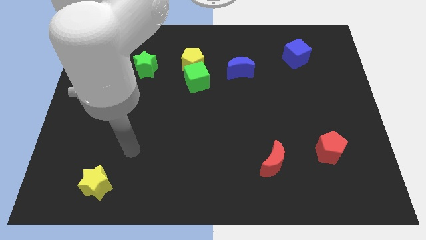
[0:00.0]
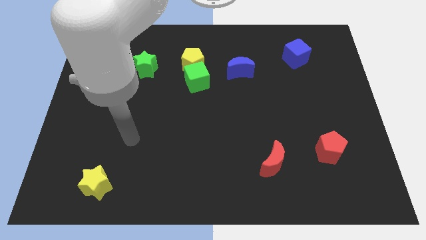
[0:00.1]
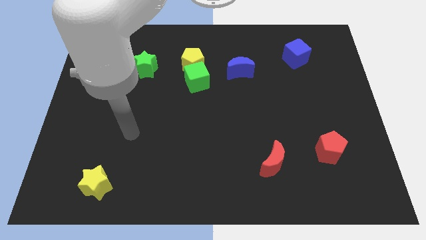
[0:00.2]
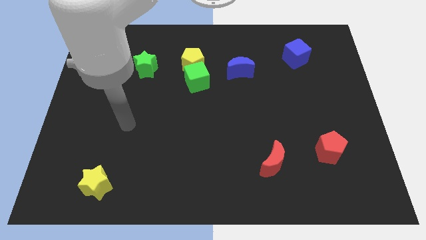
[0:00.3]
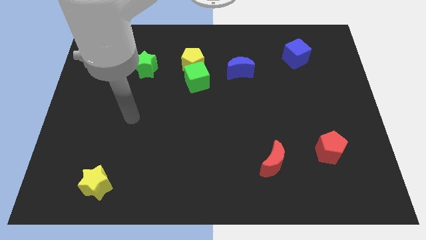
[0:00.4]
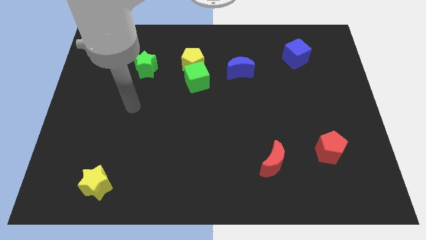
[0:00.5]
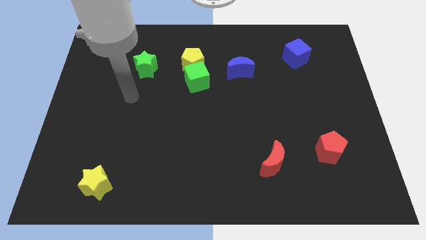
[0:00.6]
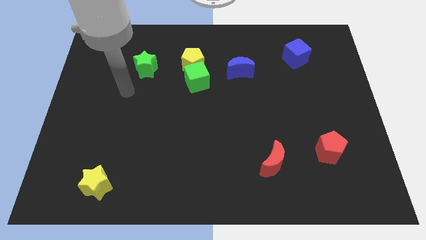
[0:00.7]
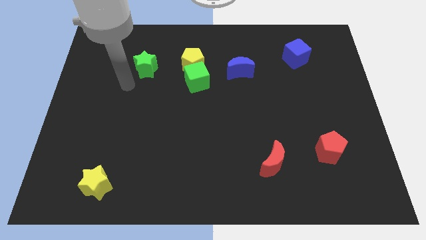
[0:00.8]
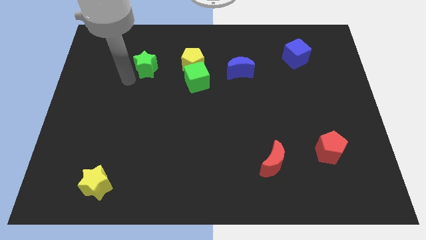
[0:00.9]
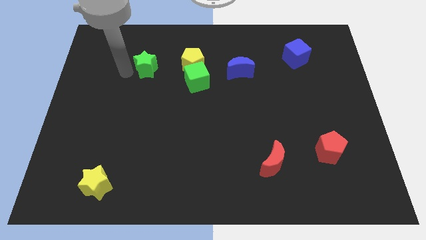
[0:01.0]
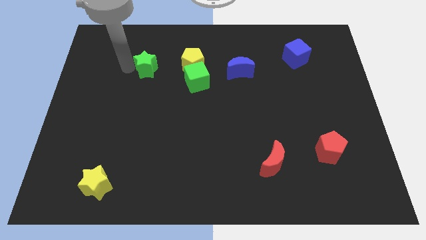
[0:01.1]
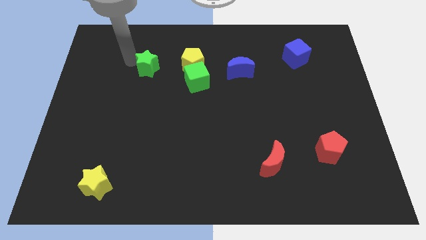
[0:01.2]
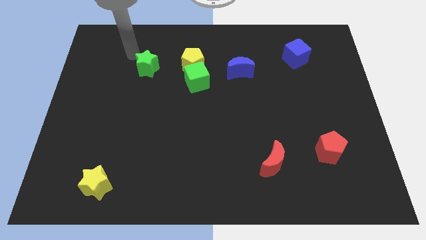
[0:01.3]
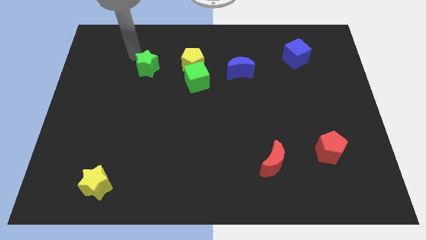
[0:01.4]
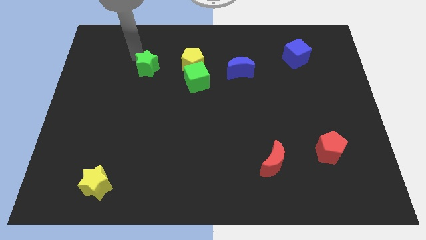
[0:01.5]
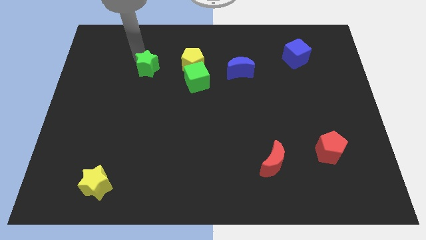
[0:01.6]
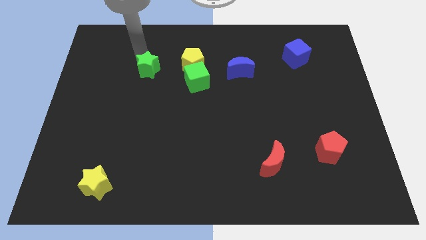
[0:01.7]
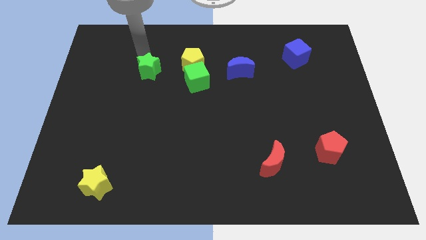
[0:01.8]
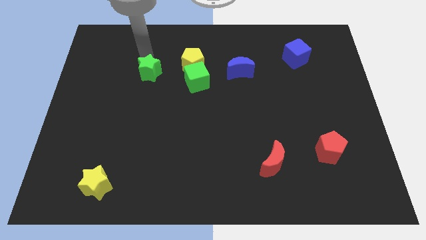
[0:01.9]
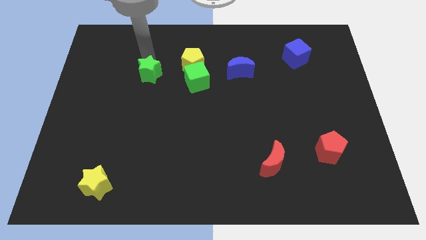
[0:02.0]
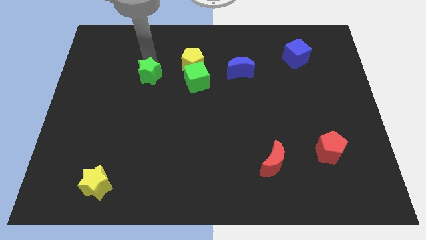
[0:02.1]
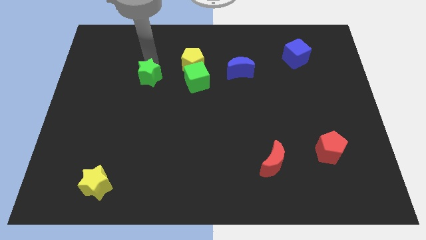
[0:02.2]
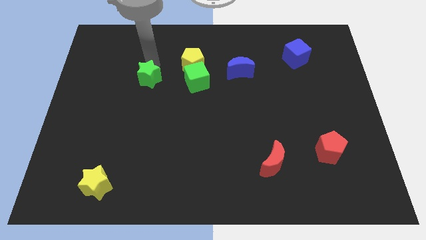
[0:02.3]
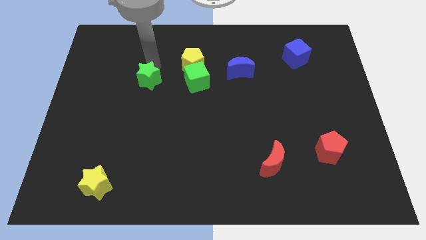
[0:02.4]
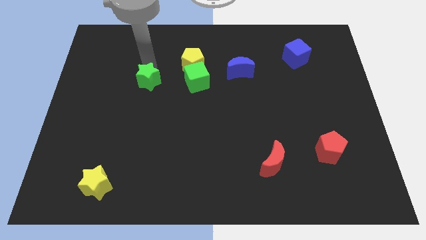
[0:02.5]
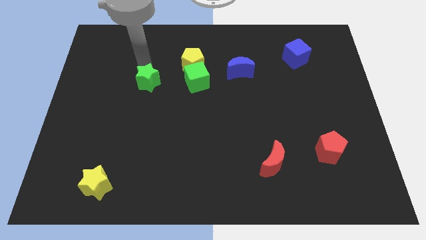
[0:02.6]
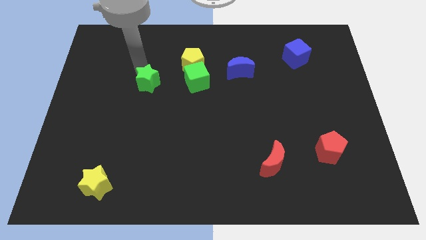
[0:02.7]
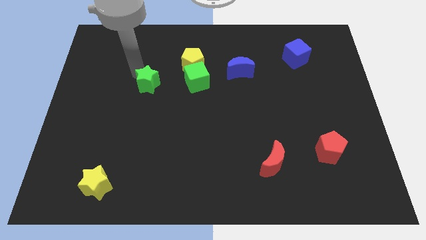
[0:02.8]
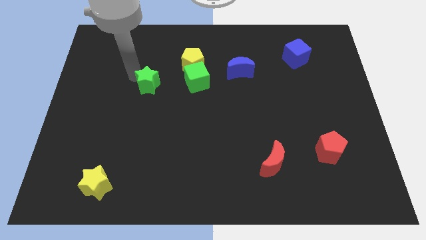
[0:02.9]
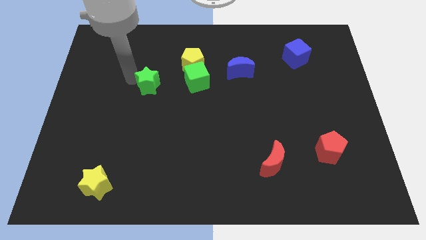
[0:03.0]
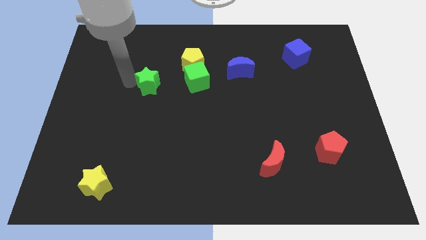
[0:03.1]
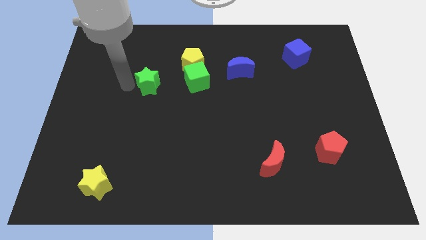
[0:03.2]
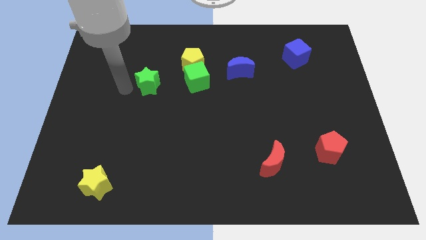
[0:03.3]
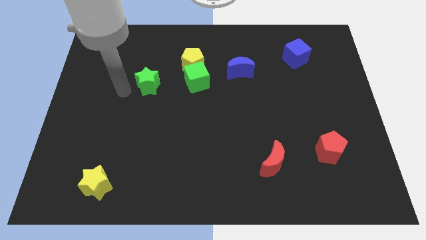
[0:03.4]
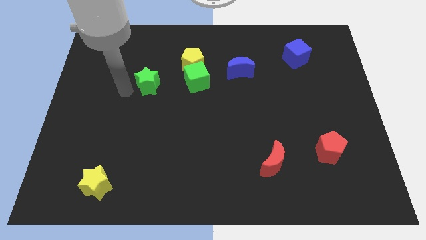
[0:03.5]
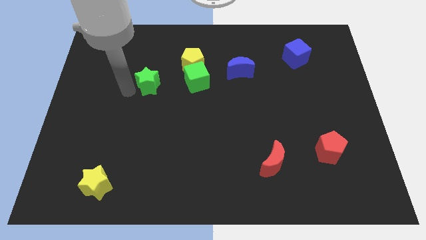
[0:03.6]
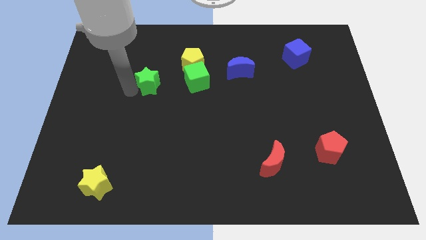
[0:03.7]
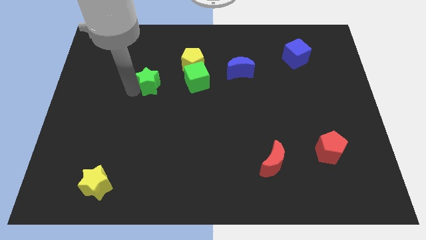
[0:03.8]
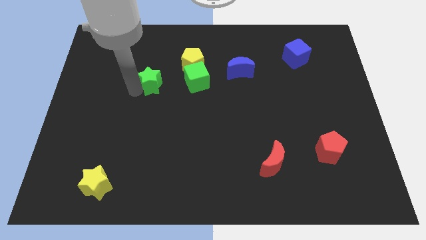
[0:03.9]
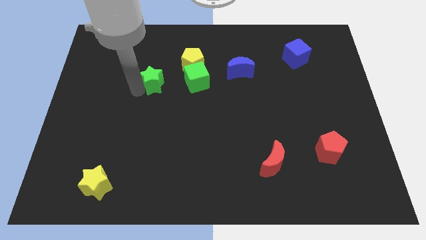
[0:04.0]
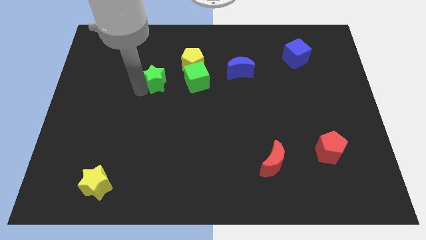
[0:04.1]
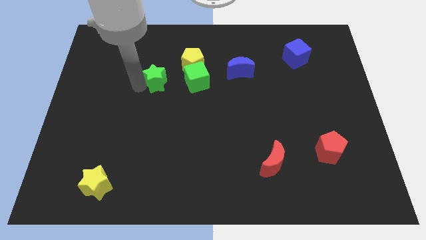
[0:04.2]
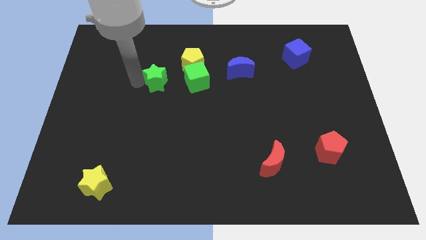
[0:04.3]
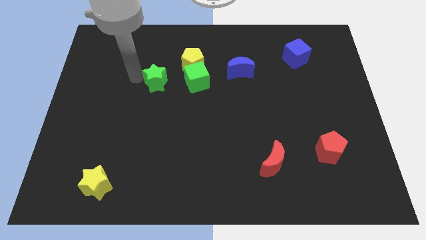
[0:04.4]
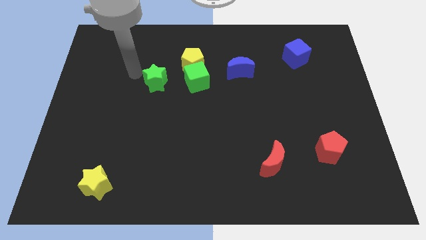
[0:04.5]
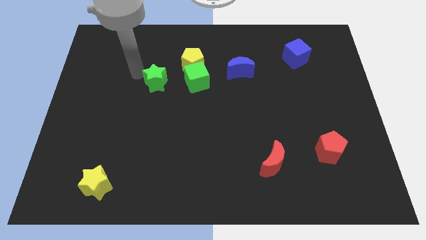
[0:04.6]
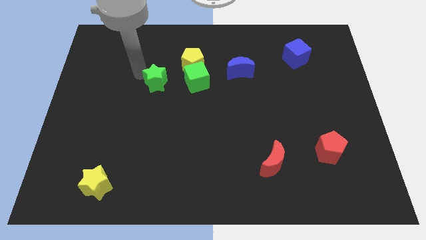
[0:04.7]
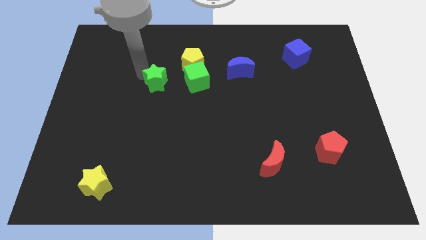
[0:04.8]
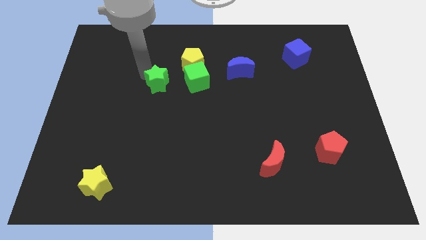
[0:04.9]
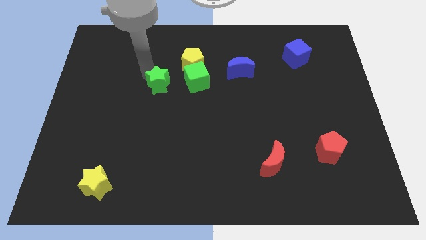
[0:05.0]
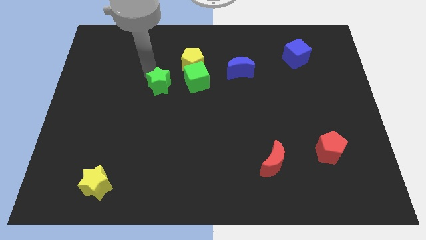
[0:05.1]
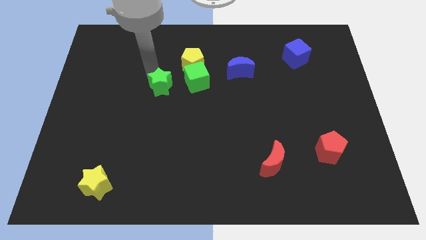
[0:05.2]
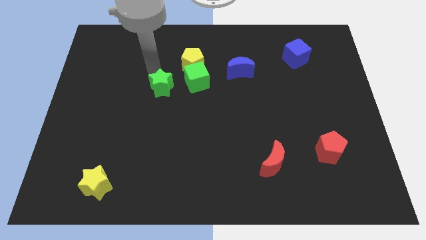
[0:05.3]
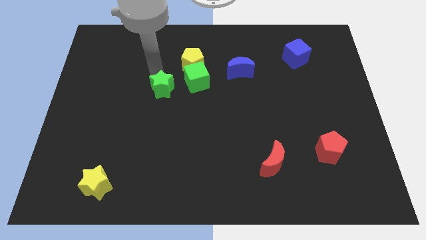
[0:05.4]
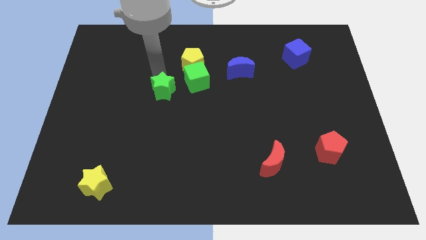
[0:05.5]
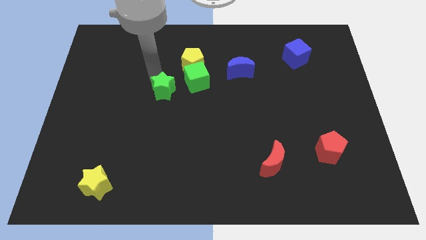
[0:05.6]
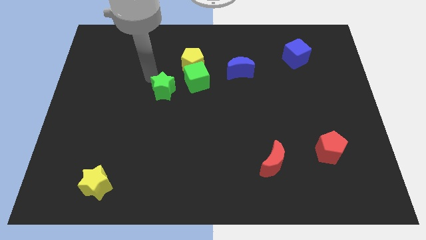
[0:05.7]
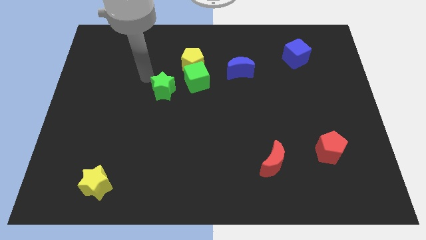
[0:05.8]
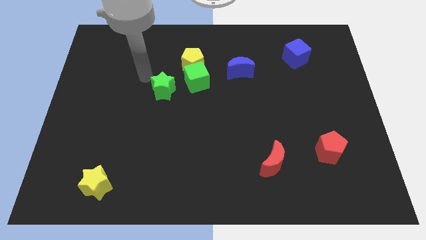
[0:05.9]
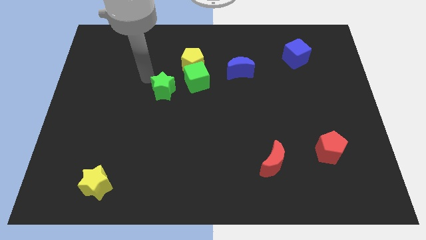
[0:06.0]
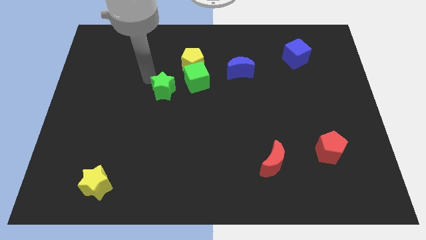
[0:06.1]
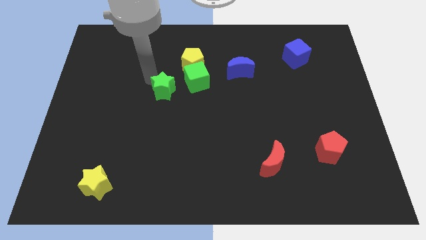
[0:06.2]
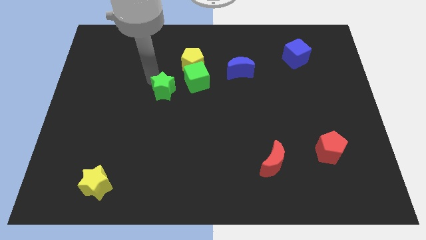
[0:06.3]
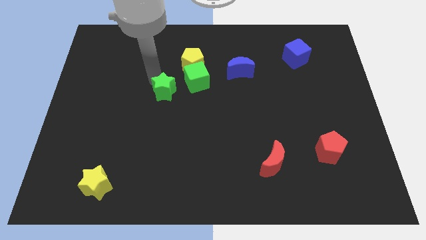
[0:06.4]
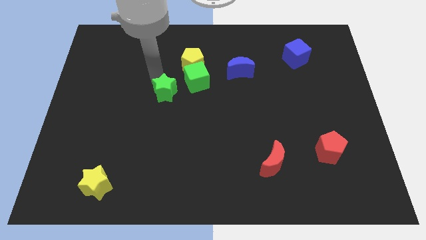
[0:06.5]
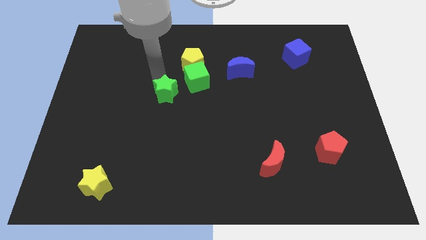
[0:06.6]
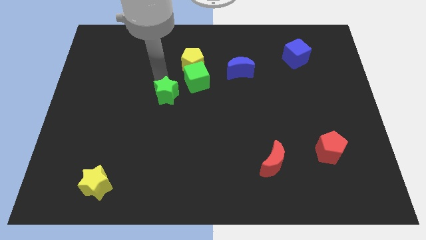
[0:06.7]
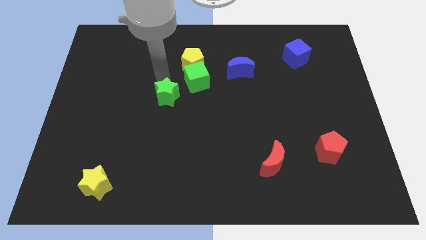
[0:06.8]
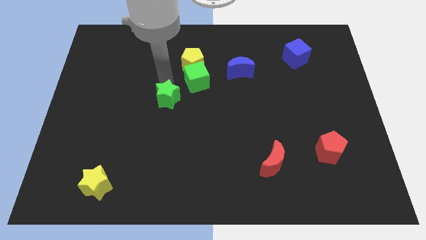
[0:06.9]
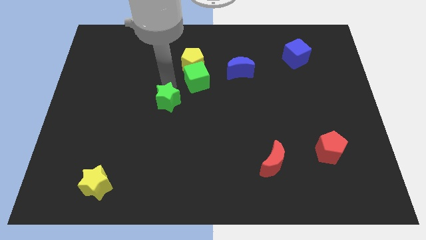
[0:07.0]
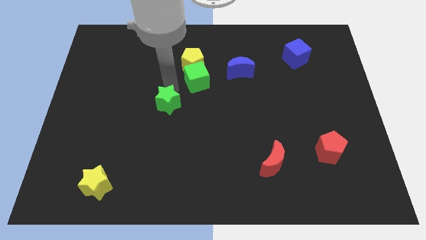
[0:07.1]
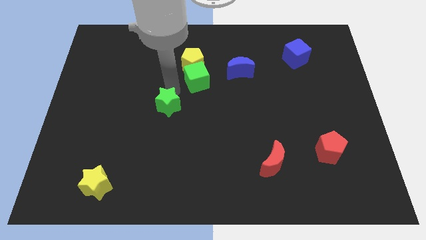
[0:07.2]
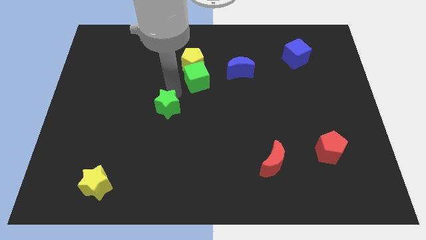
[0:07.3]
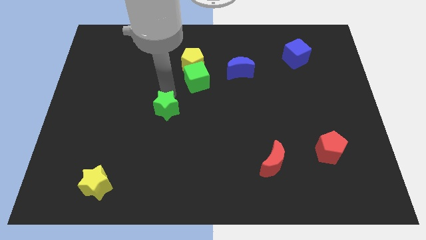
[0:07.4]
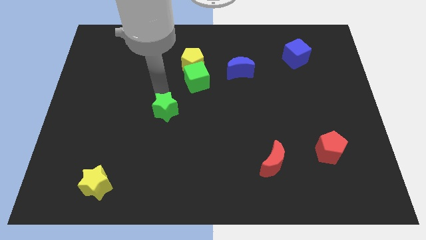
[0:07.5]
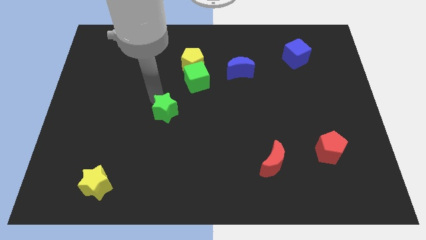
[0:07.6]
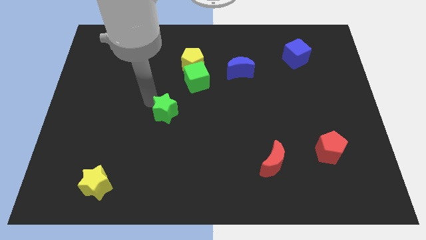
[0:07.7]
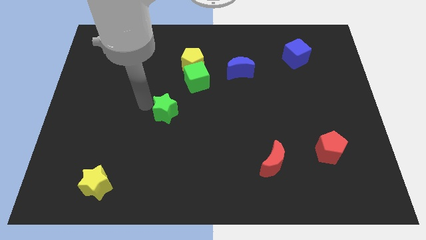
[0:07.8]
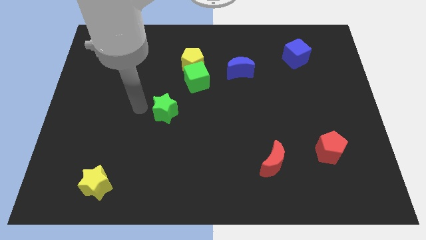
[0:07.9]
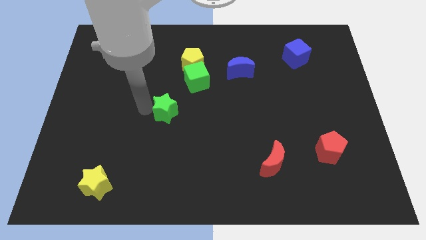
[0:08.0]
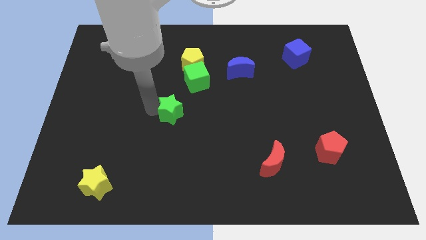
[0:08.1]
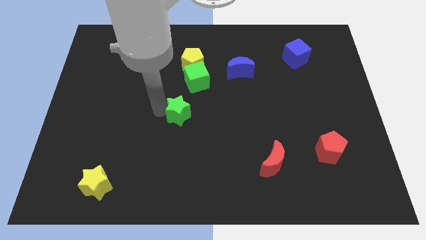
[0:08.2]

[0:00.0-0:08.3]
push the green star below the green cube
